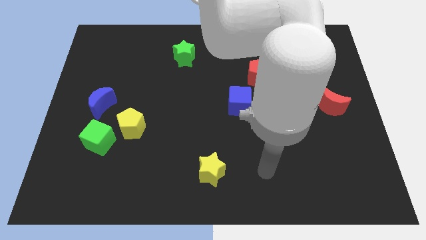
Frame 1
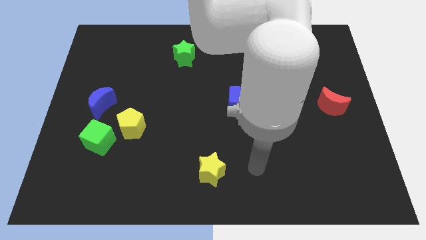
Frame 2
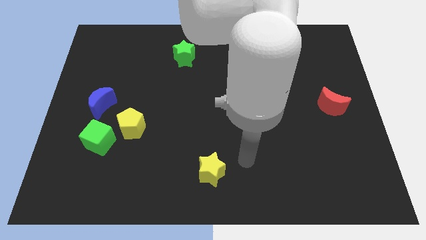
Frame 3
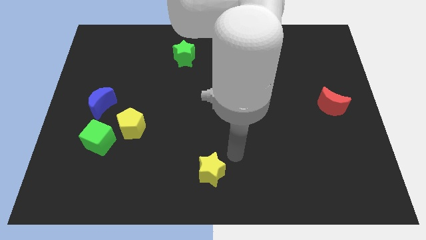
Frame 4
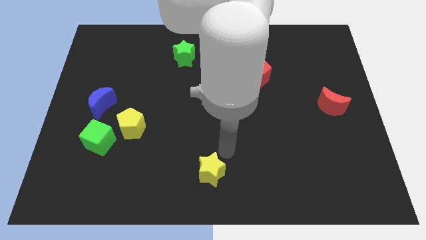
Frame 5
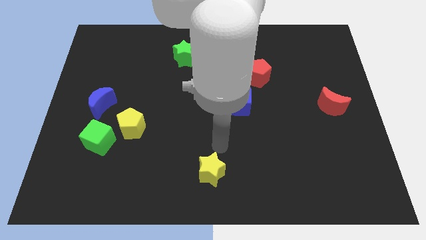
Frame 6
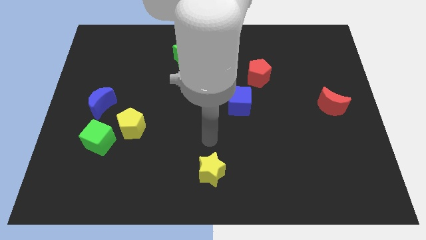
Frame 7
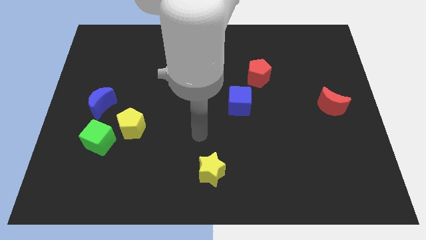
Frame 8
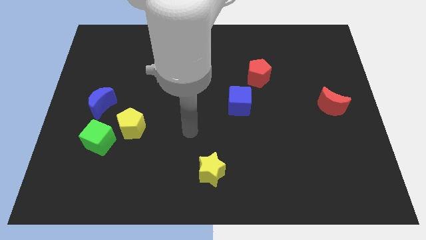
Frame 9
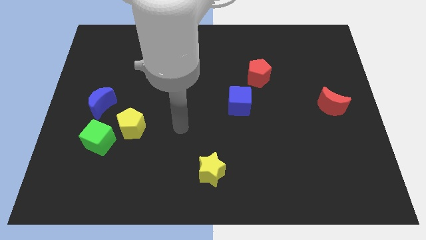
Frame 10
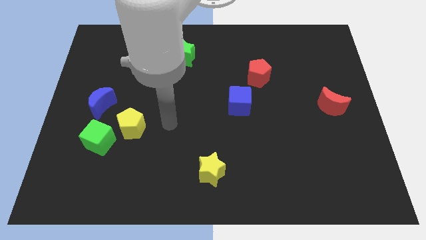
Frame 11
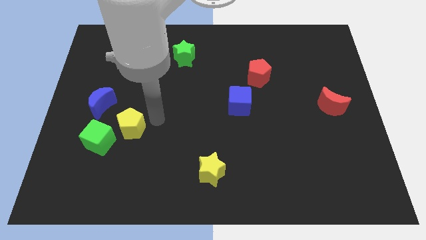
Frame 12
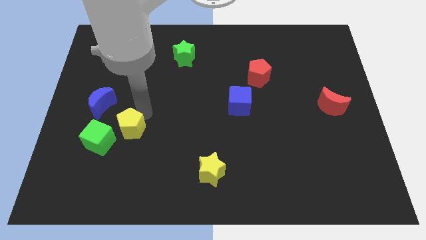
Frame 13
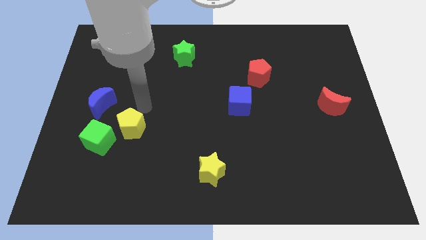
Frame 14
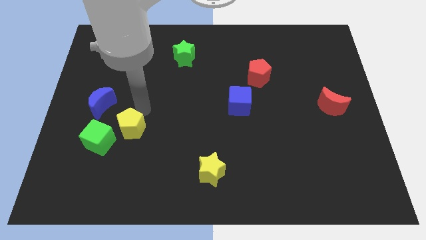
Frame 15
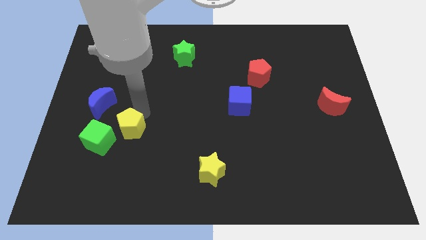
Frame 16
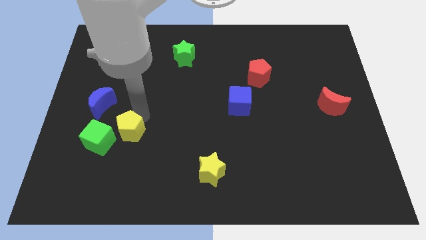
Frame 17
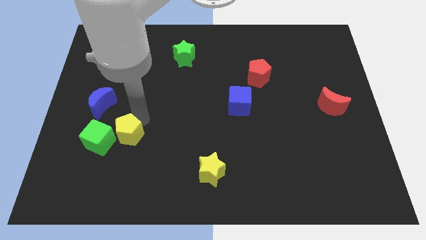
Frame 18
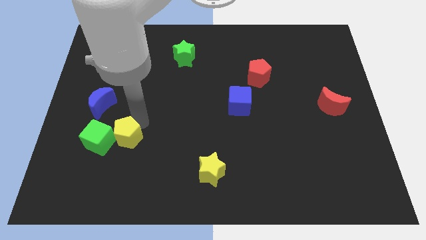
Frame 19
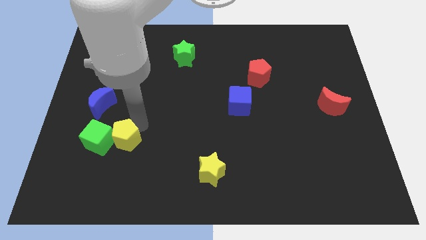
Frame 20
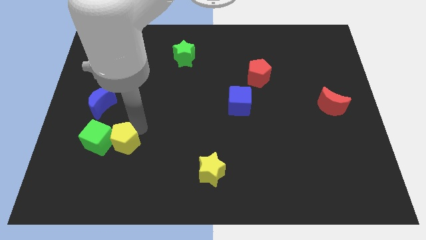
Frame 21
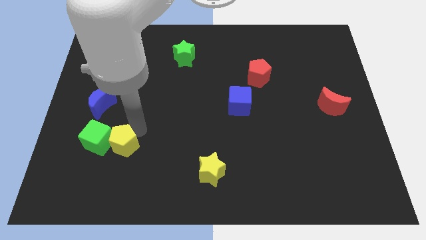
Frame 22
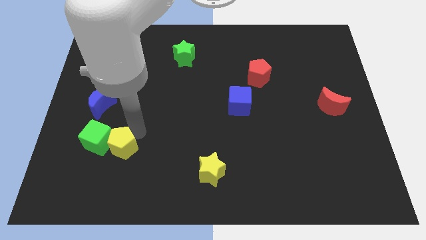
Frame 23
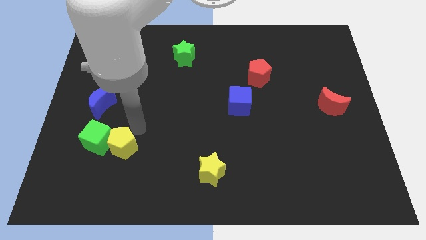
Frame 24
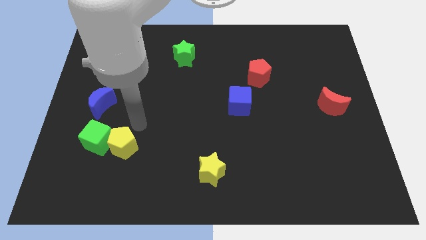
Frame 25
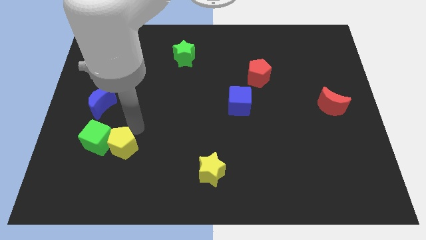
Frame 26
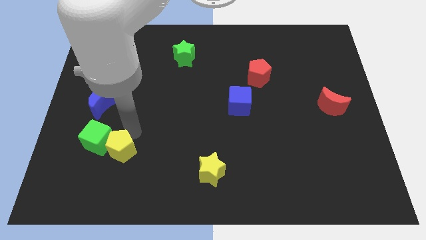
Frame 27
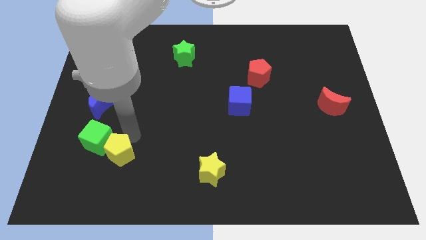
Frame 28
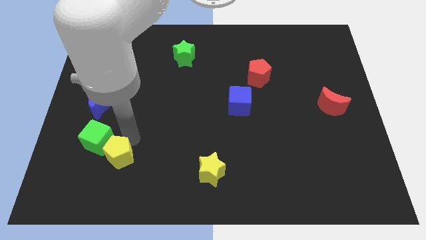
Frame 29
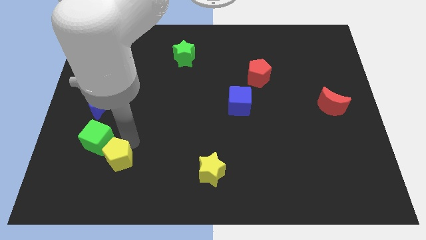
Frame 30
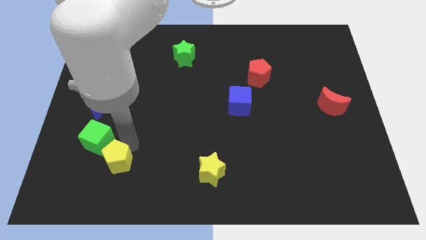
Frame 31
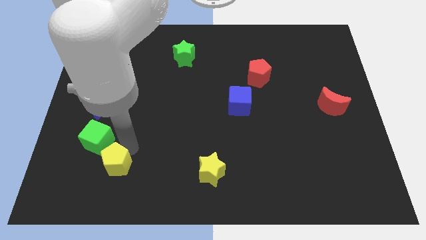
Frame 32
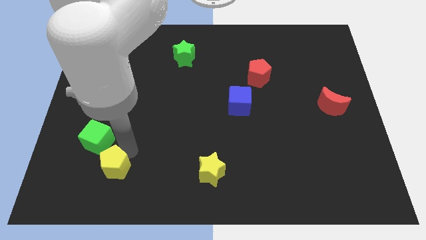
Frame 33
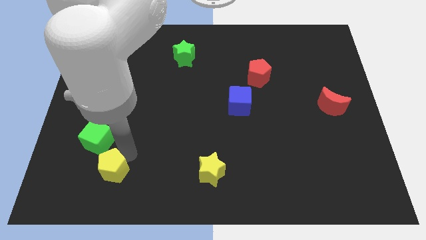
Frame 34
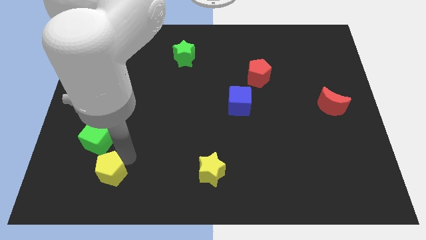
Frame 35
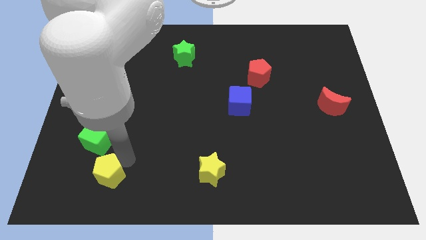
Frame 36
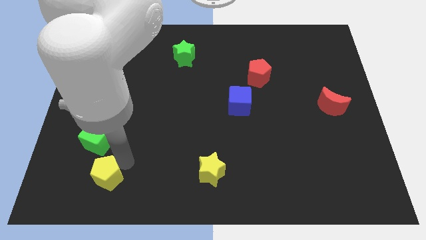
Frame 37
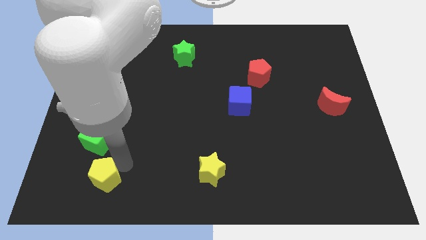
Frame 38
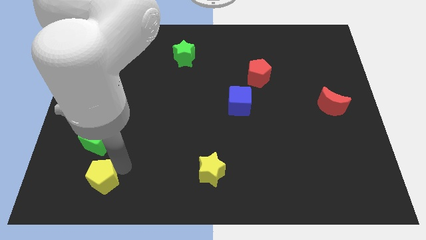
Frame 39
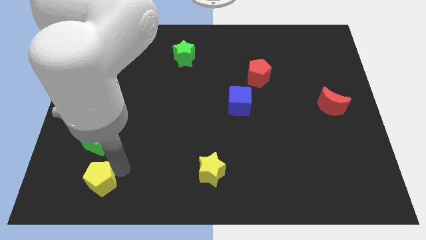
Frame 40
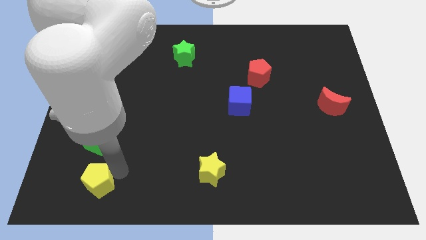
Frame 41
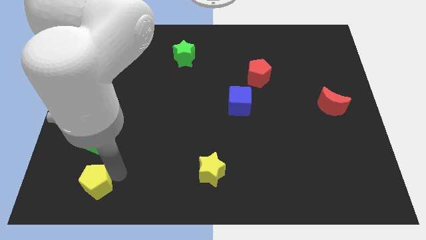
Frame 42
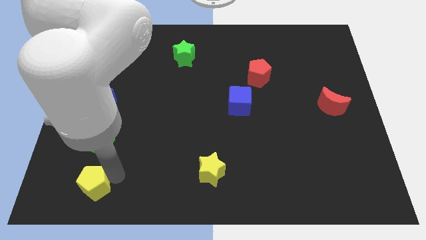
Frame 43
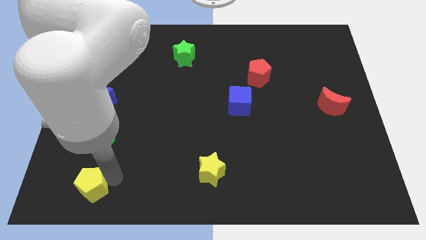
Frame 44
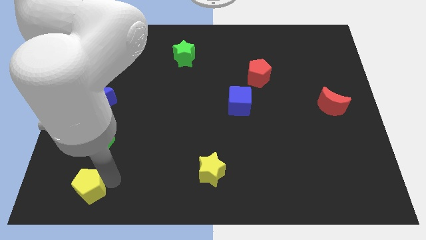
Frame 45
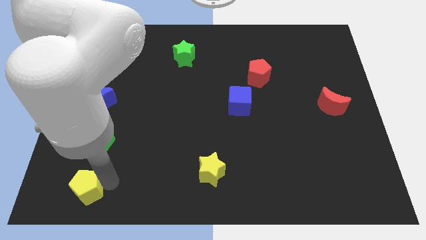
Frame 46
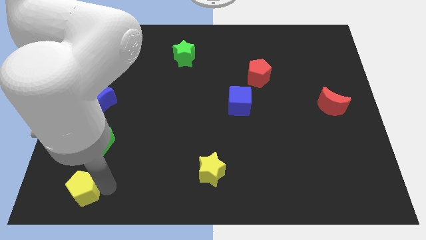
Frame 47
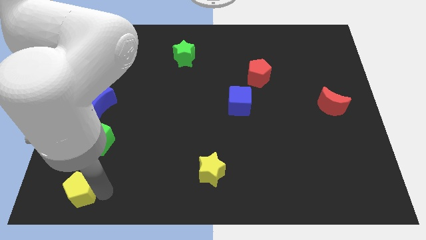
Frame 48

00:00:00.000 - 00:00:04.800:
push the yellow pentagon to the bottom left corner

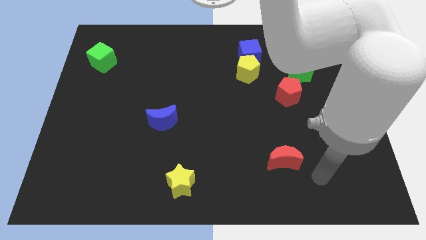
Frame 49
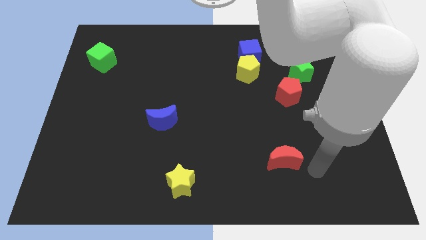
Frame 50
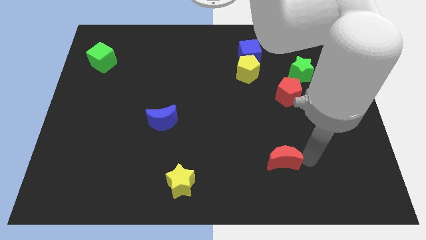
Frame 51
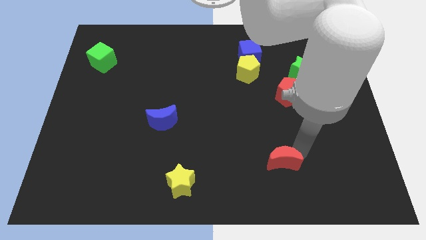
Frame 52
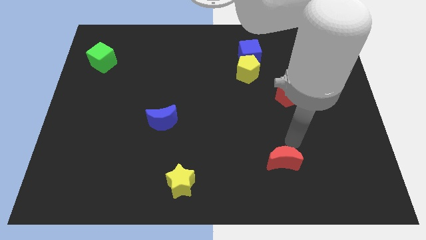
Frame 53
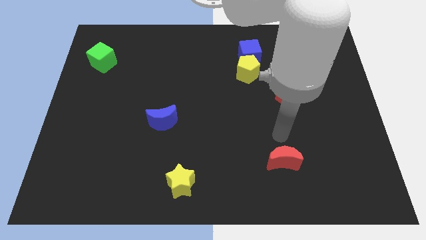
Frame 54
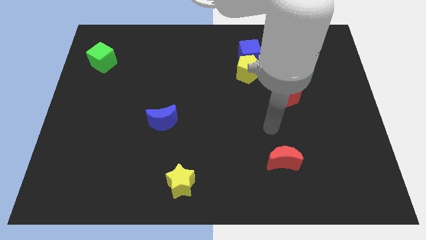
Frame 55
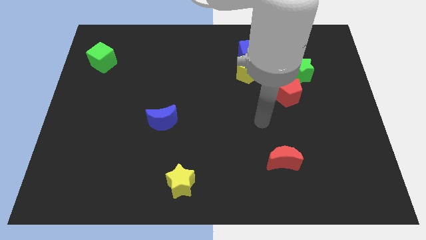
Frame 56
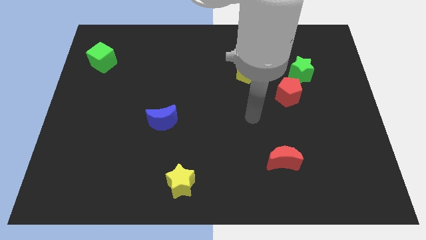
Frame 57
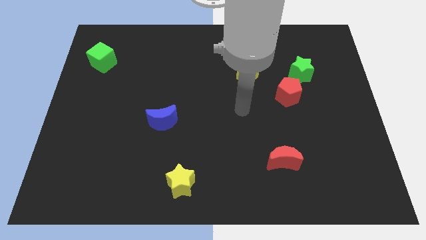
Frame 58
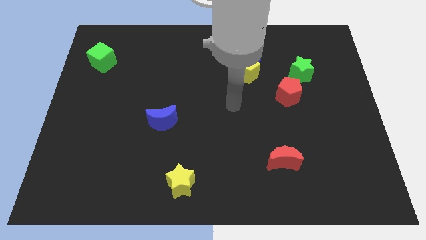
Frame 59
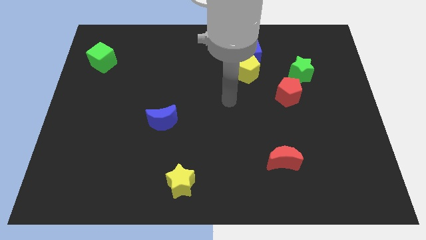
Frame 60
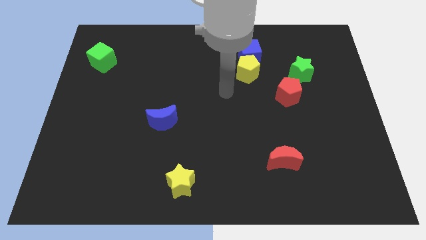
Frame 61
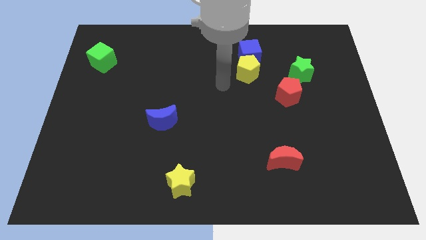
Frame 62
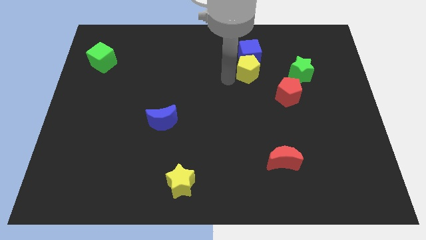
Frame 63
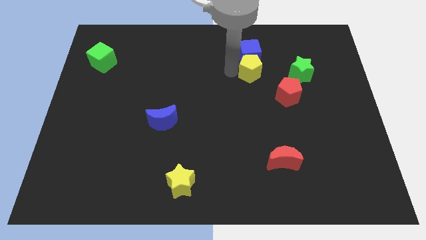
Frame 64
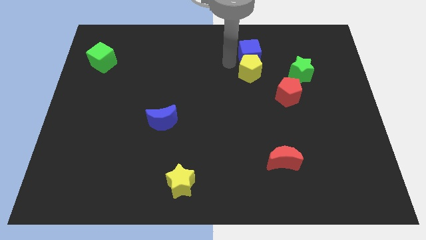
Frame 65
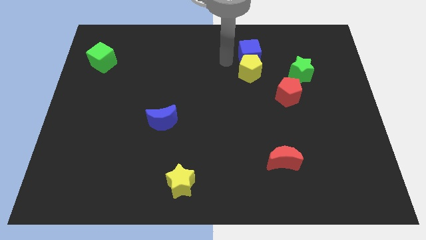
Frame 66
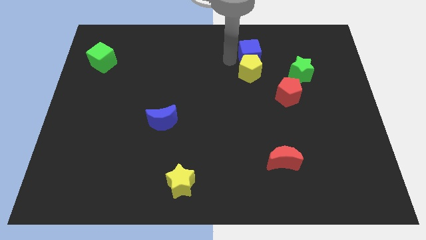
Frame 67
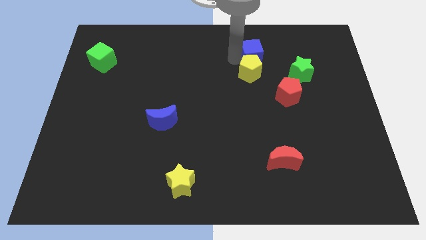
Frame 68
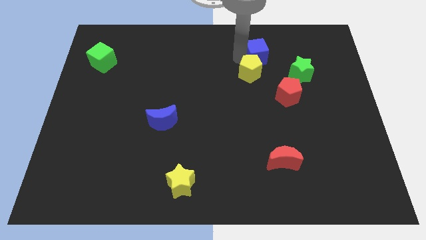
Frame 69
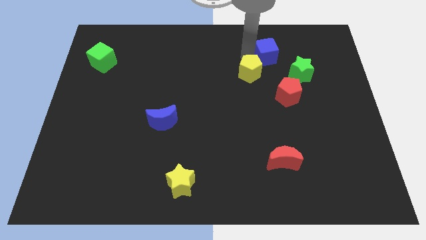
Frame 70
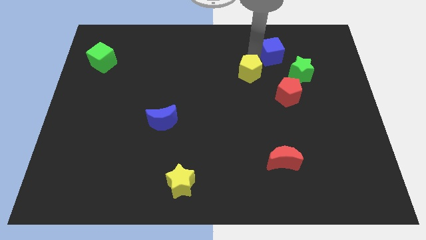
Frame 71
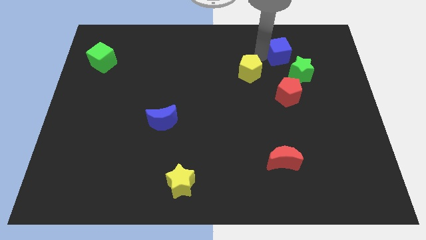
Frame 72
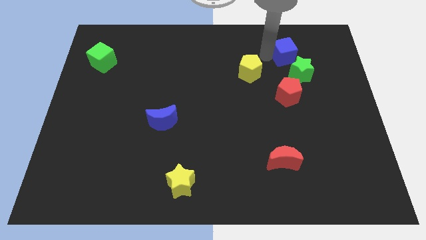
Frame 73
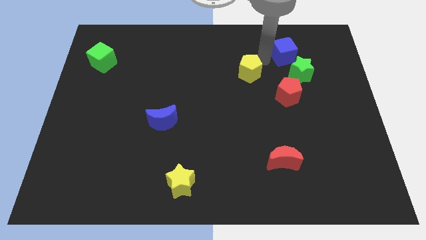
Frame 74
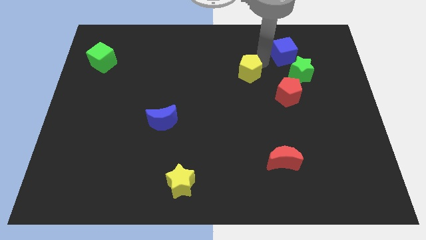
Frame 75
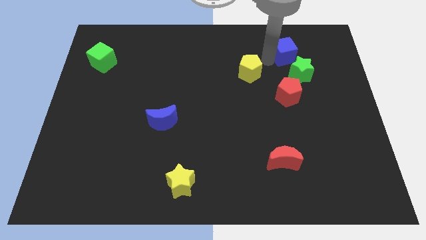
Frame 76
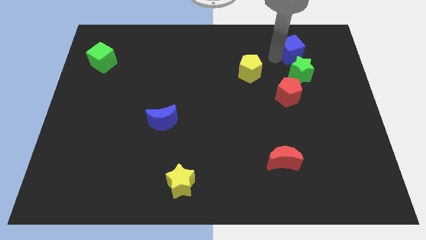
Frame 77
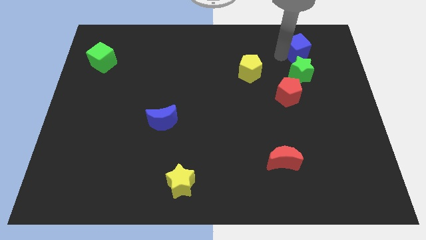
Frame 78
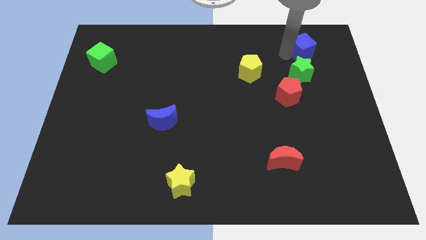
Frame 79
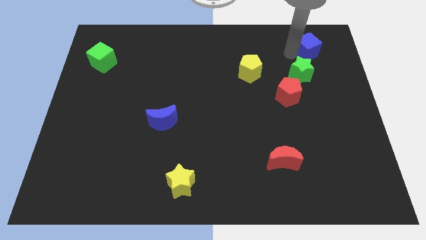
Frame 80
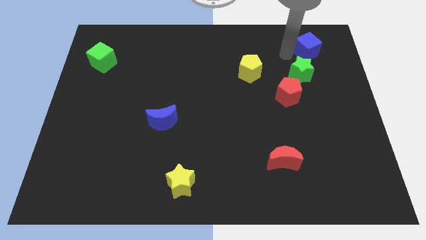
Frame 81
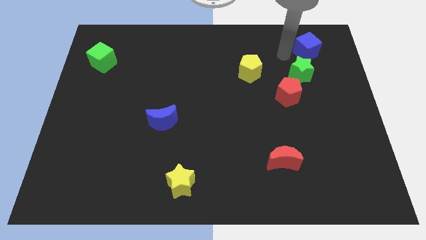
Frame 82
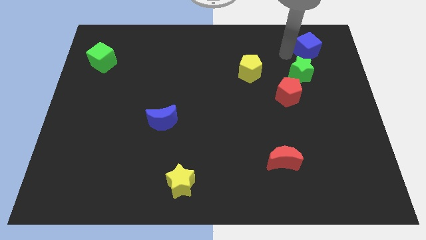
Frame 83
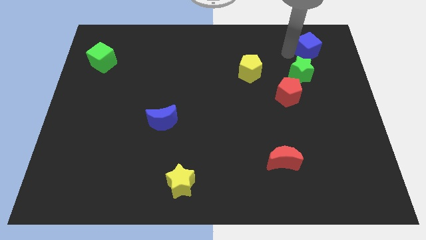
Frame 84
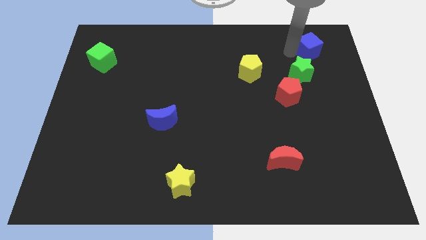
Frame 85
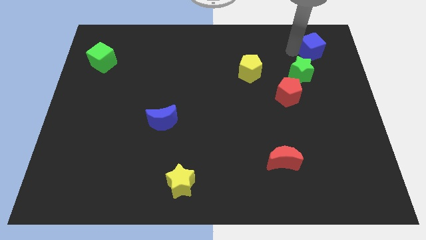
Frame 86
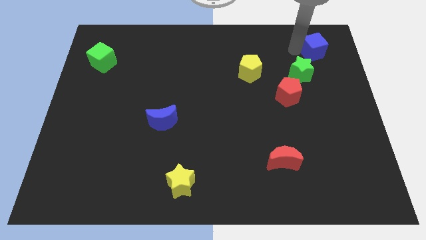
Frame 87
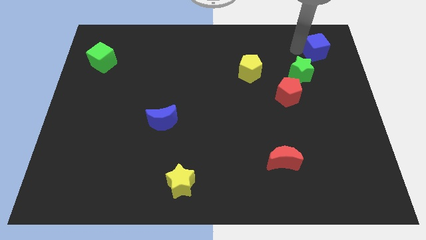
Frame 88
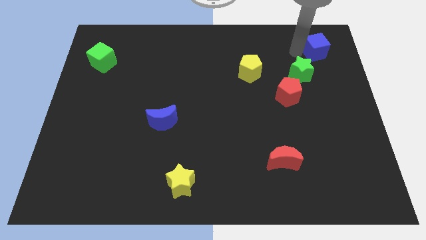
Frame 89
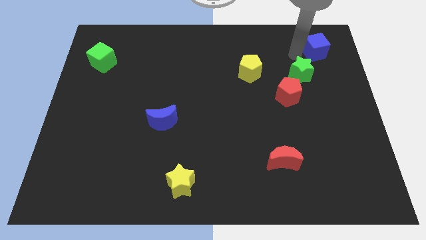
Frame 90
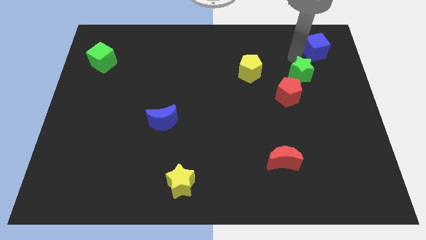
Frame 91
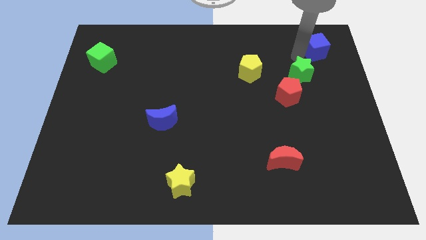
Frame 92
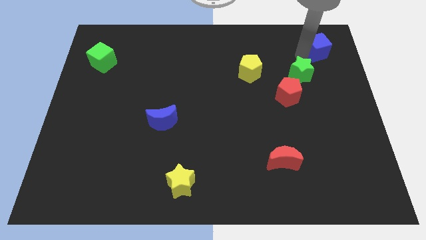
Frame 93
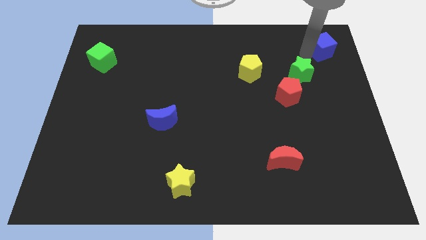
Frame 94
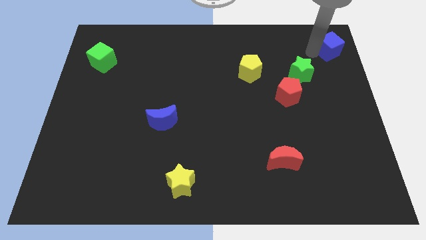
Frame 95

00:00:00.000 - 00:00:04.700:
move the blue cube to the top right corner
